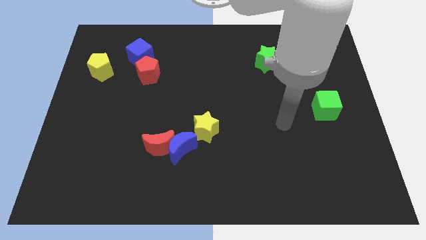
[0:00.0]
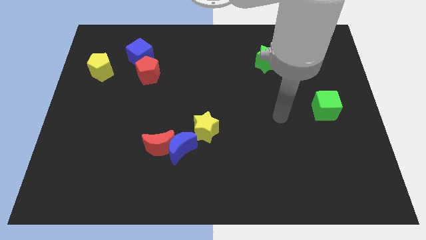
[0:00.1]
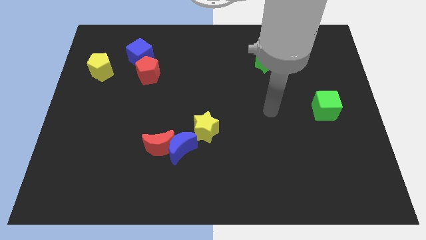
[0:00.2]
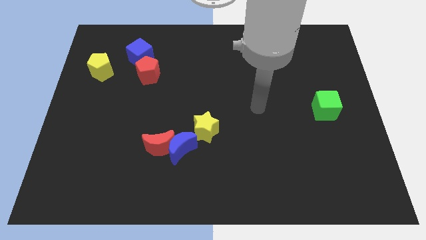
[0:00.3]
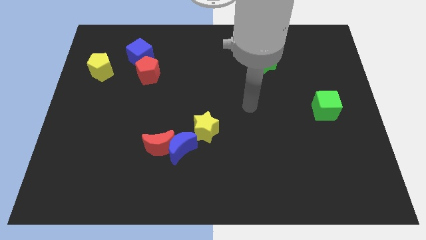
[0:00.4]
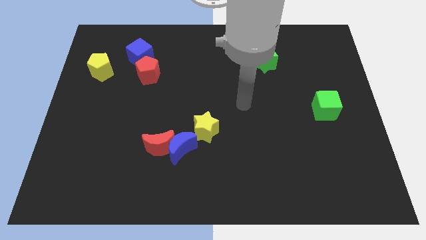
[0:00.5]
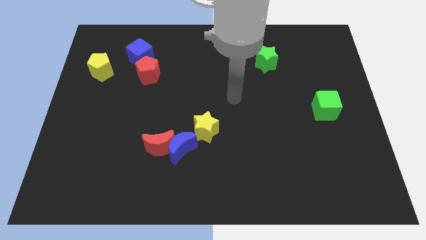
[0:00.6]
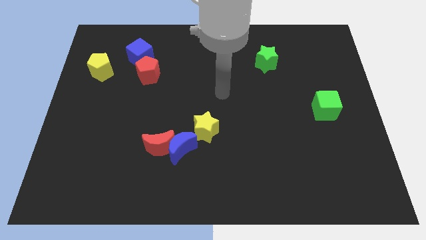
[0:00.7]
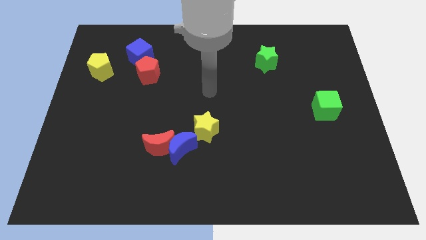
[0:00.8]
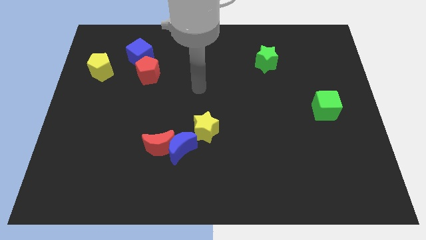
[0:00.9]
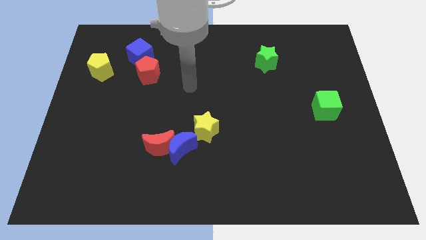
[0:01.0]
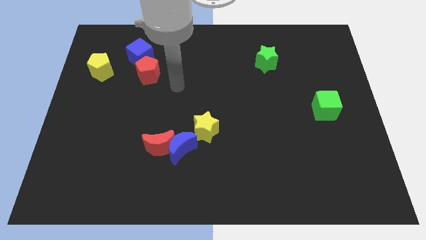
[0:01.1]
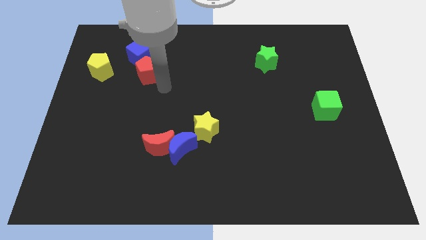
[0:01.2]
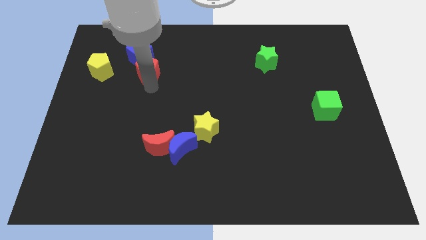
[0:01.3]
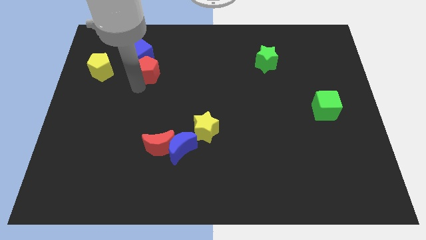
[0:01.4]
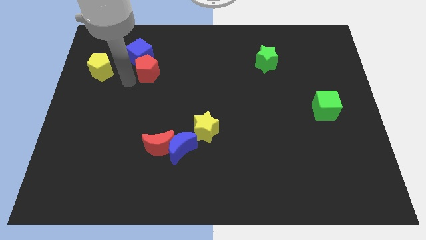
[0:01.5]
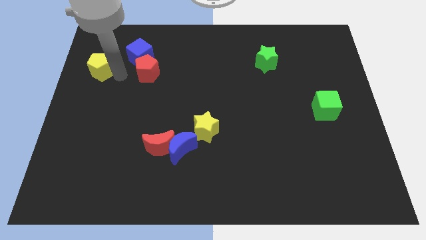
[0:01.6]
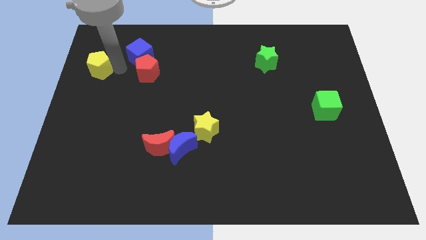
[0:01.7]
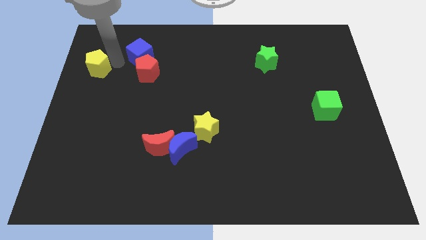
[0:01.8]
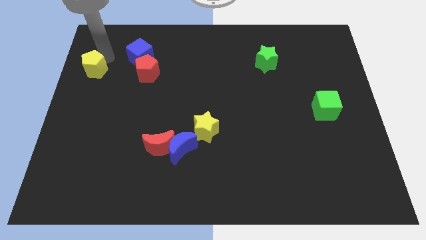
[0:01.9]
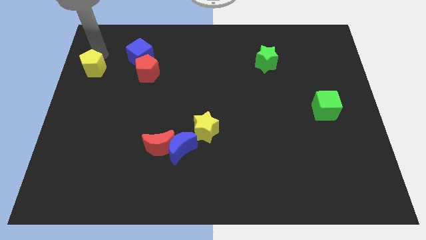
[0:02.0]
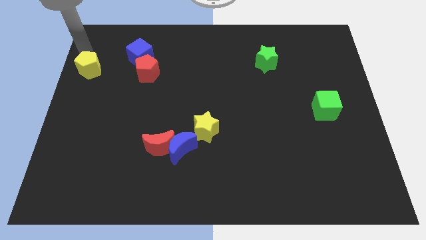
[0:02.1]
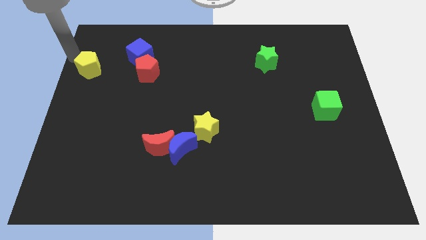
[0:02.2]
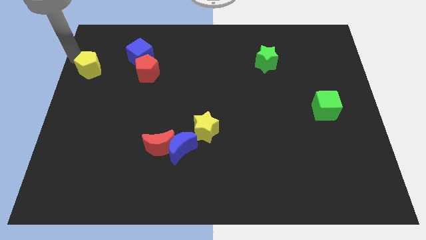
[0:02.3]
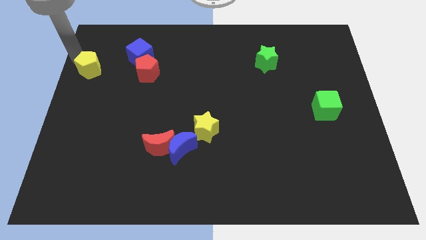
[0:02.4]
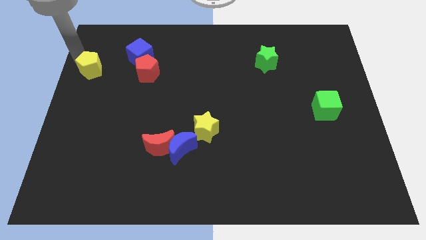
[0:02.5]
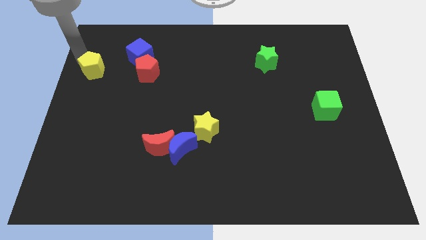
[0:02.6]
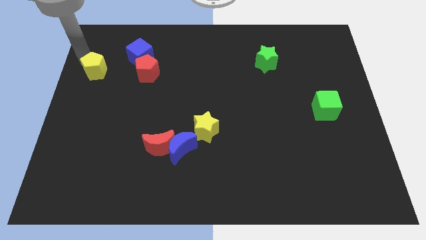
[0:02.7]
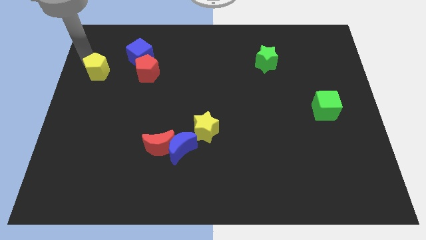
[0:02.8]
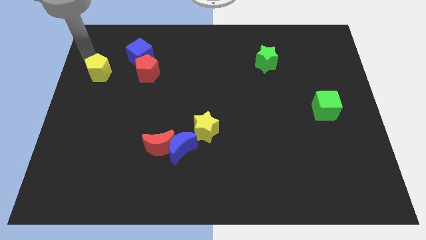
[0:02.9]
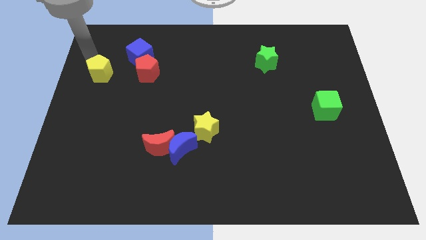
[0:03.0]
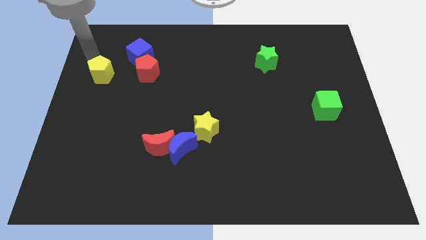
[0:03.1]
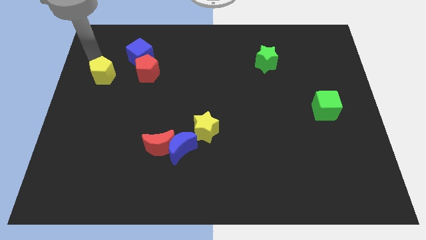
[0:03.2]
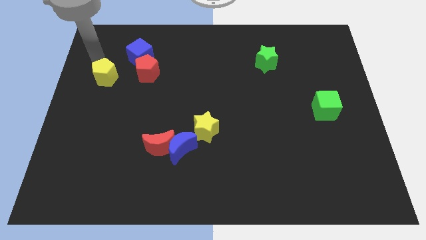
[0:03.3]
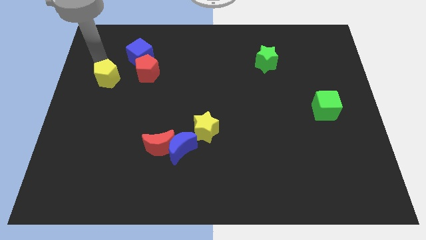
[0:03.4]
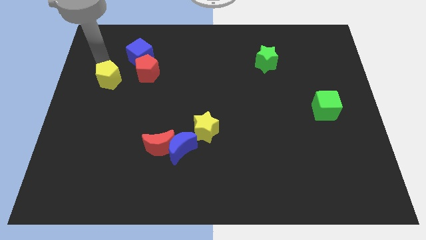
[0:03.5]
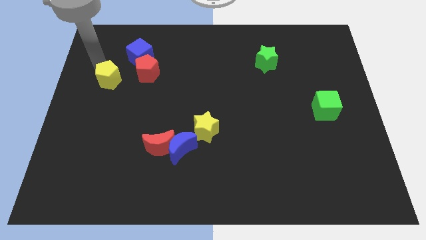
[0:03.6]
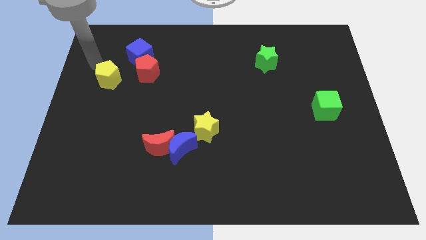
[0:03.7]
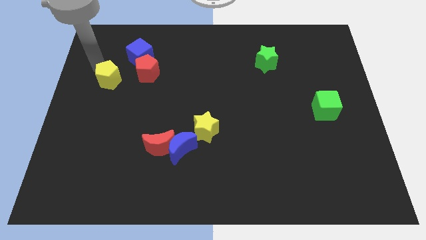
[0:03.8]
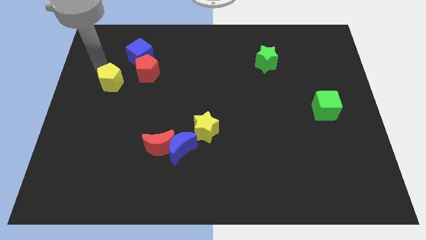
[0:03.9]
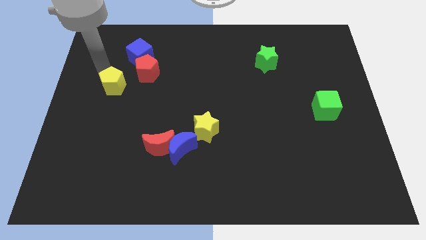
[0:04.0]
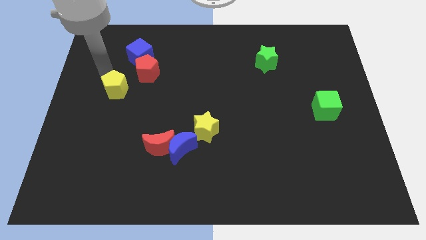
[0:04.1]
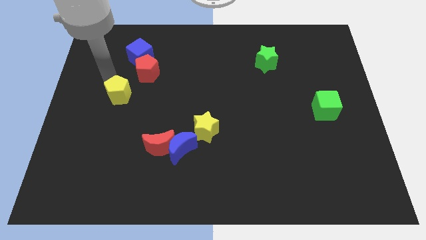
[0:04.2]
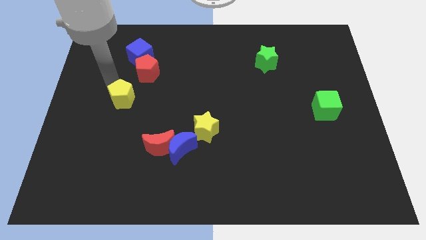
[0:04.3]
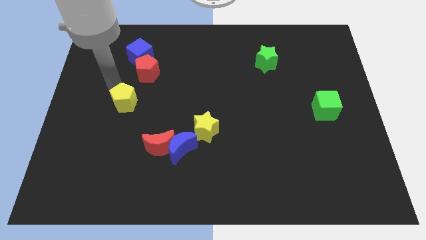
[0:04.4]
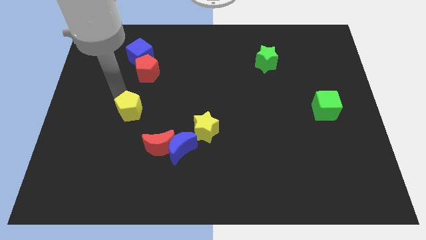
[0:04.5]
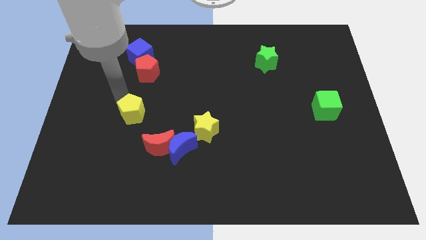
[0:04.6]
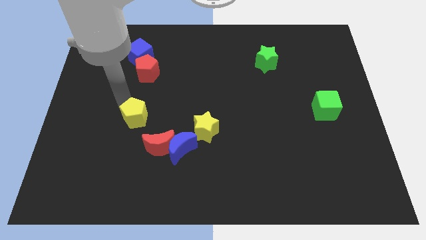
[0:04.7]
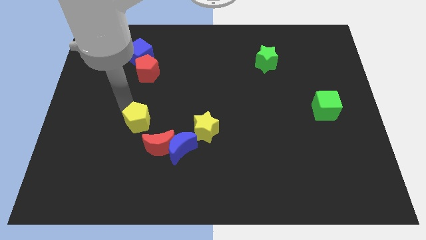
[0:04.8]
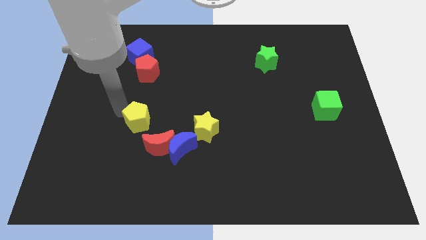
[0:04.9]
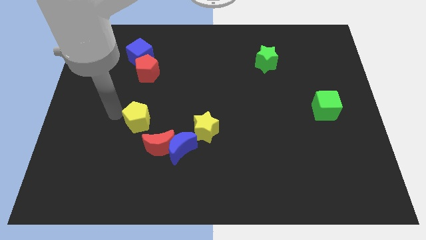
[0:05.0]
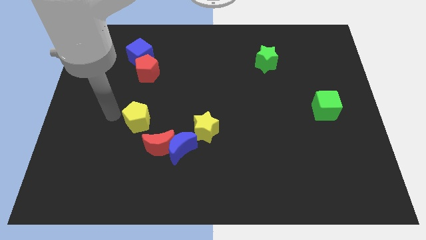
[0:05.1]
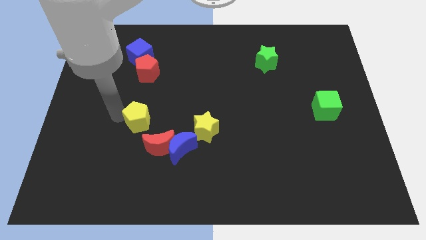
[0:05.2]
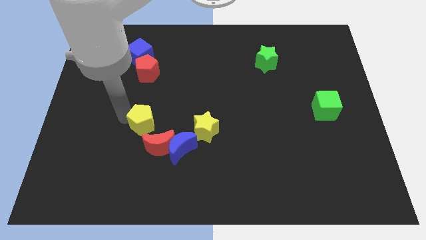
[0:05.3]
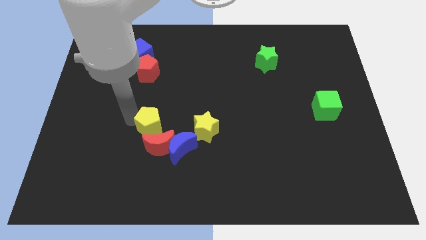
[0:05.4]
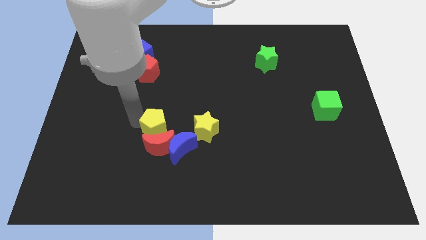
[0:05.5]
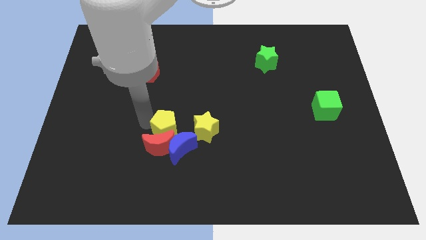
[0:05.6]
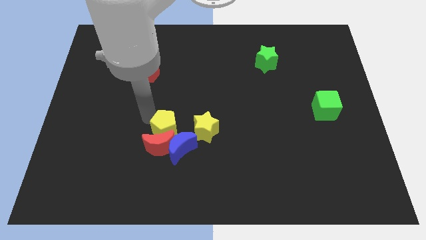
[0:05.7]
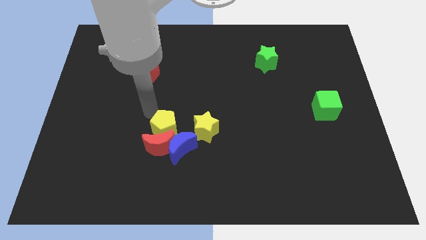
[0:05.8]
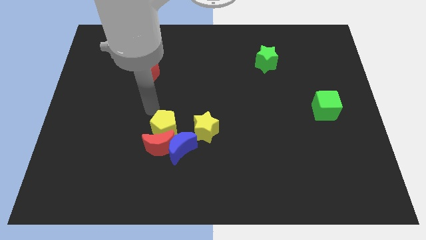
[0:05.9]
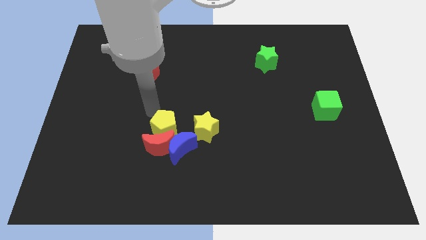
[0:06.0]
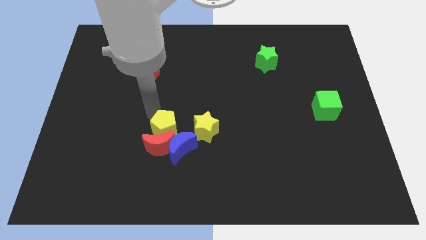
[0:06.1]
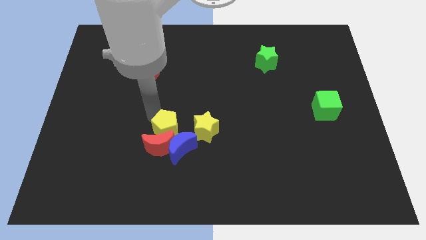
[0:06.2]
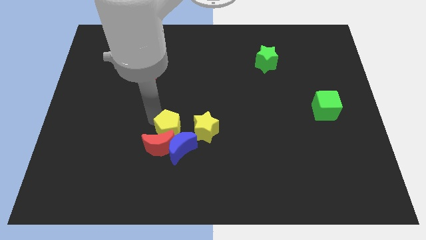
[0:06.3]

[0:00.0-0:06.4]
push the yellow pentagon next to the blue moon

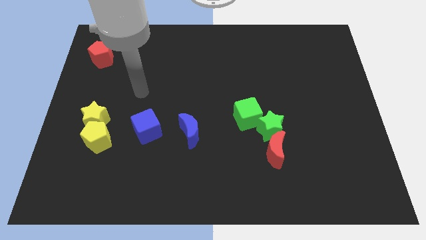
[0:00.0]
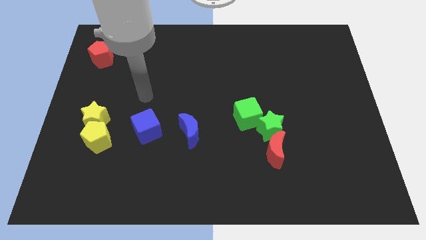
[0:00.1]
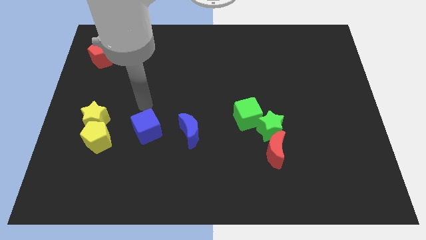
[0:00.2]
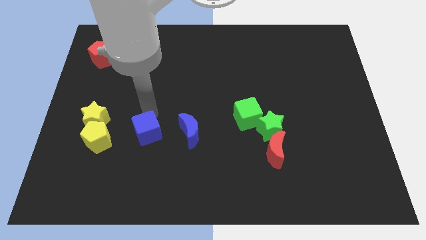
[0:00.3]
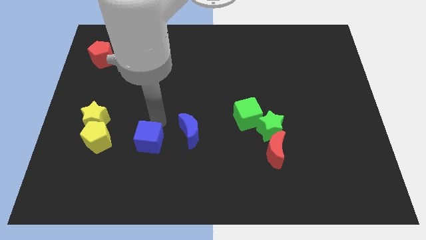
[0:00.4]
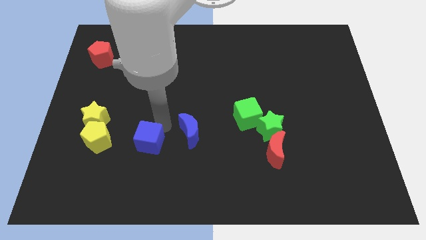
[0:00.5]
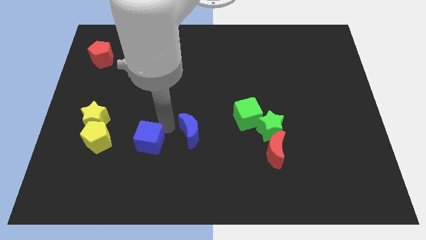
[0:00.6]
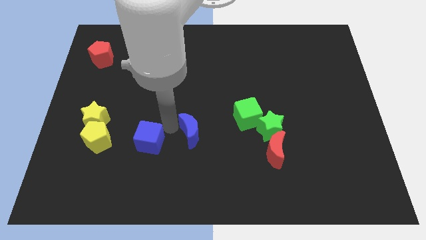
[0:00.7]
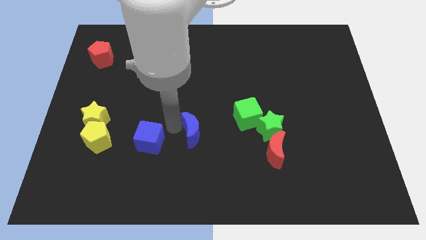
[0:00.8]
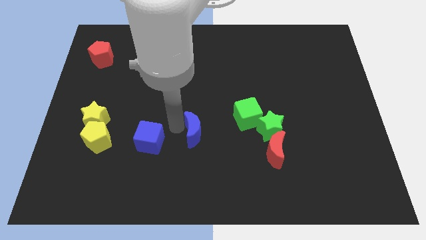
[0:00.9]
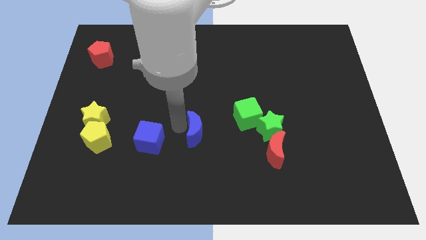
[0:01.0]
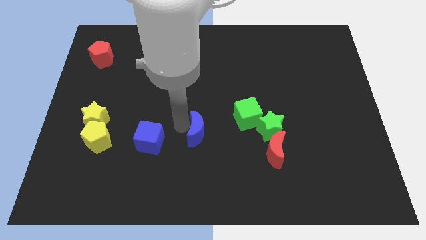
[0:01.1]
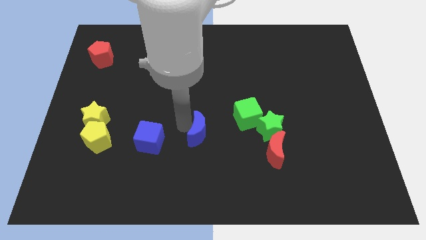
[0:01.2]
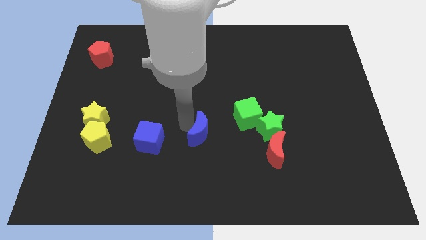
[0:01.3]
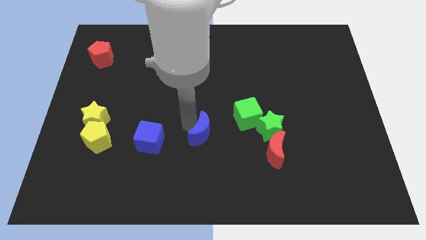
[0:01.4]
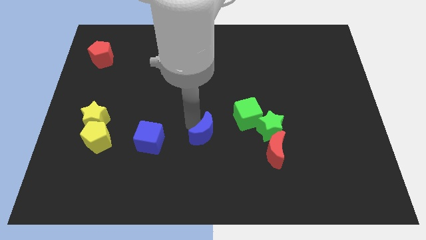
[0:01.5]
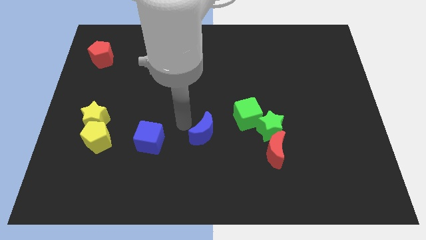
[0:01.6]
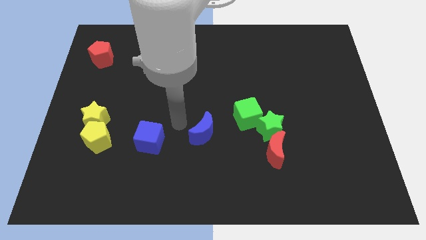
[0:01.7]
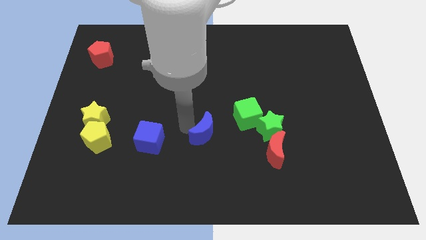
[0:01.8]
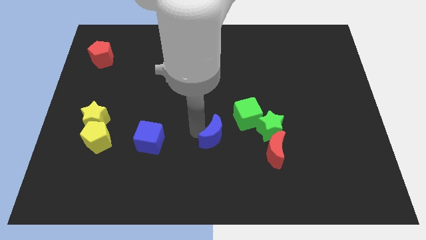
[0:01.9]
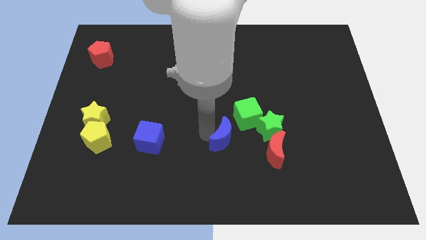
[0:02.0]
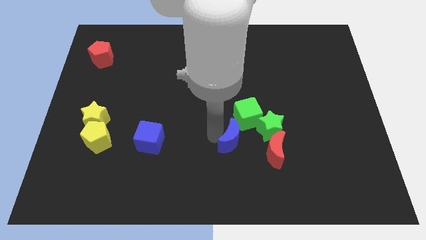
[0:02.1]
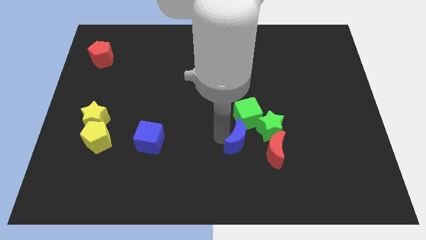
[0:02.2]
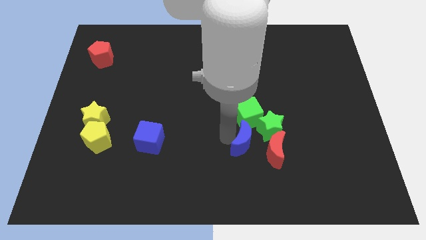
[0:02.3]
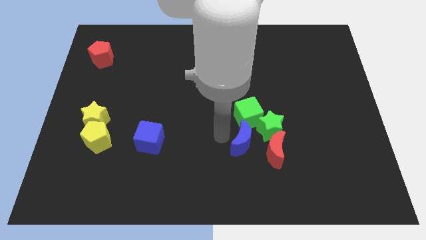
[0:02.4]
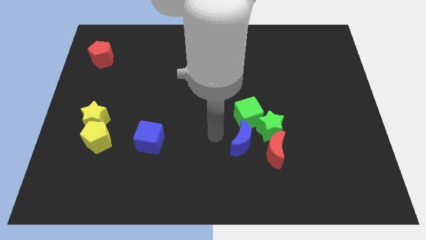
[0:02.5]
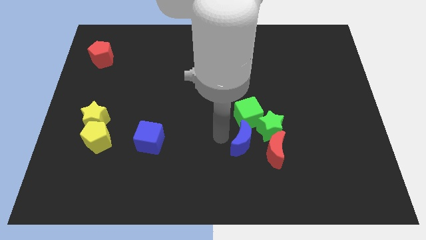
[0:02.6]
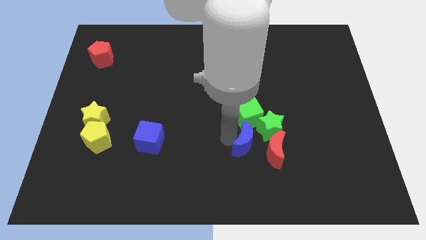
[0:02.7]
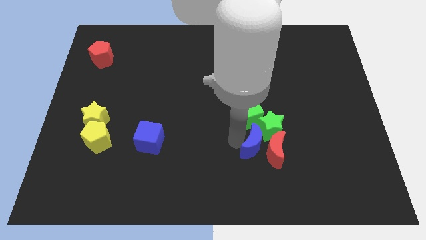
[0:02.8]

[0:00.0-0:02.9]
move the blue moon close to the red moon
